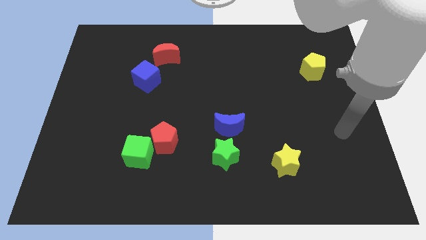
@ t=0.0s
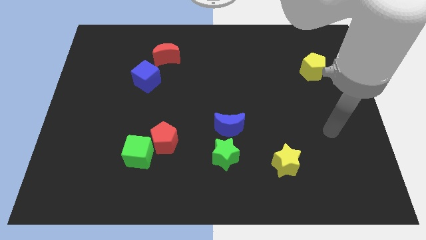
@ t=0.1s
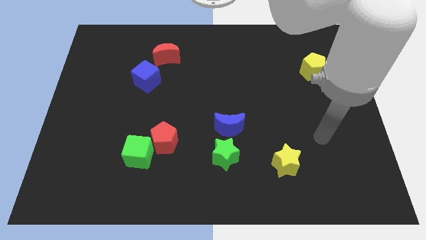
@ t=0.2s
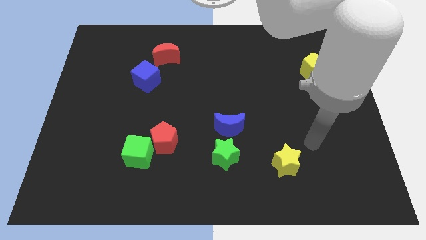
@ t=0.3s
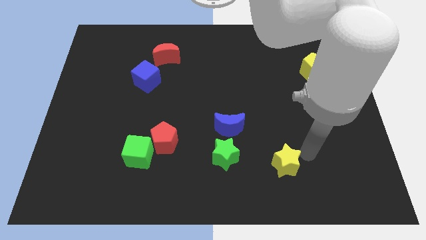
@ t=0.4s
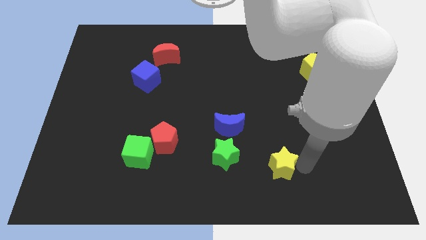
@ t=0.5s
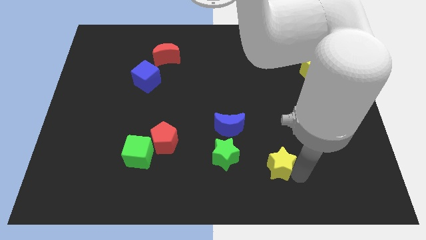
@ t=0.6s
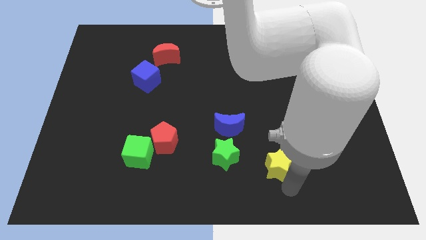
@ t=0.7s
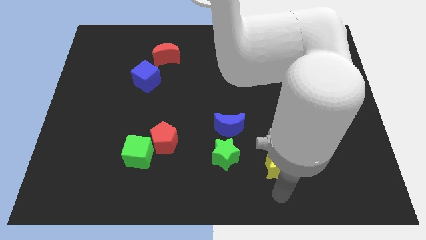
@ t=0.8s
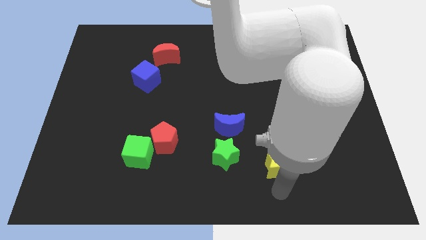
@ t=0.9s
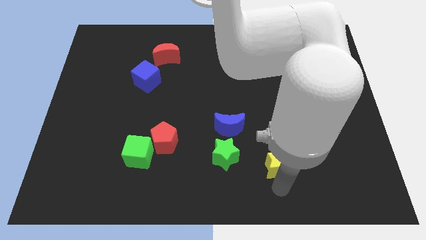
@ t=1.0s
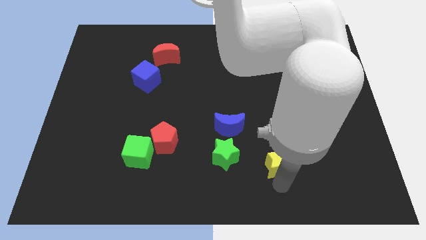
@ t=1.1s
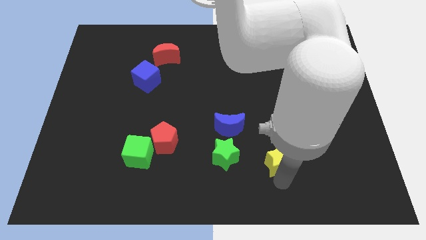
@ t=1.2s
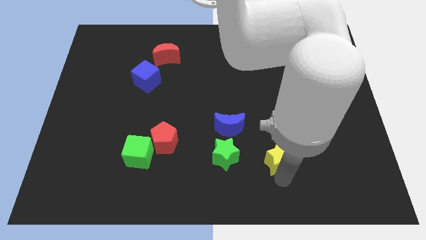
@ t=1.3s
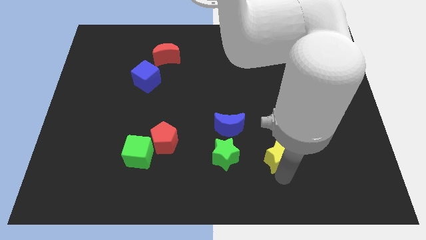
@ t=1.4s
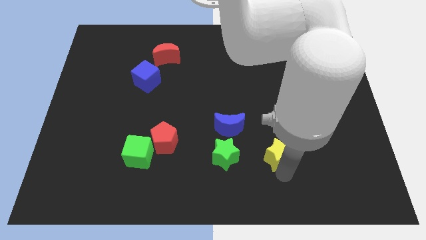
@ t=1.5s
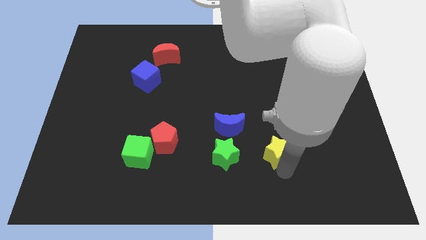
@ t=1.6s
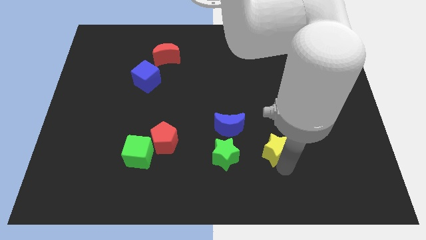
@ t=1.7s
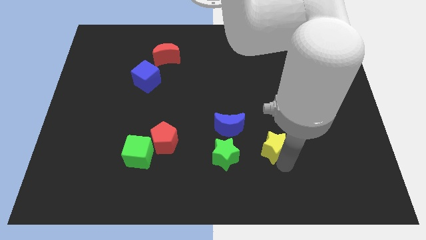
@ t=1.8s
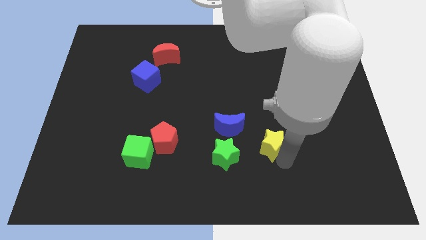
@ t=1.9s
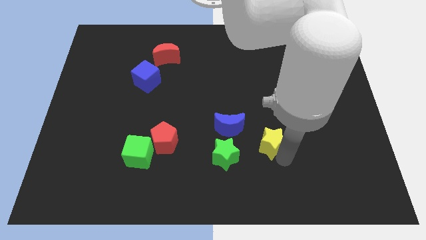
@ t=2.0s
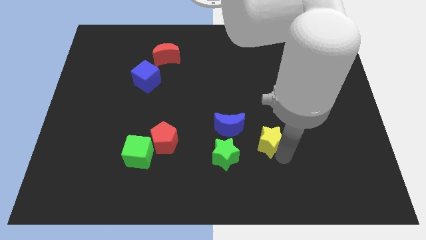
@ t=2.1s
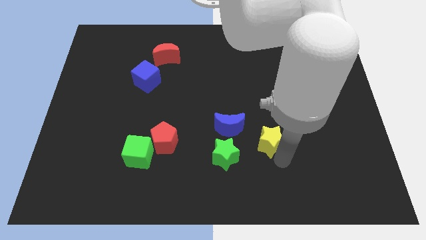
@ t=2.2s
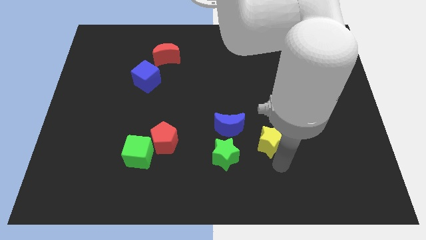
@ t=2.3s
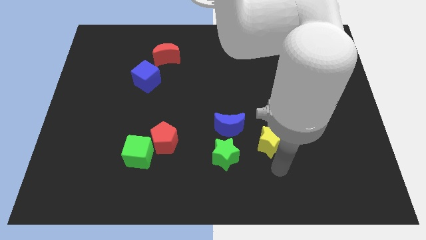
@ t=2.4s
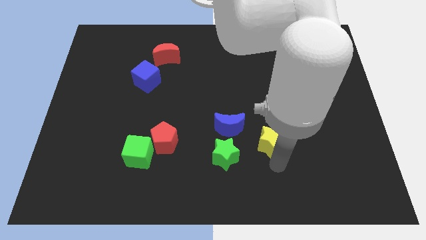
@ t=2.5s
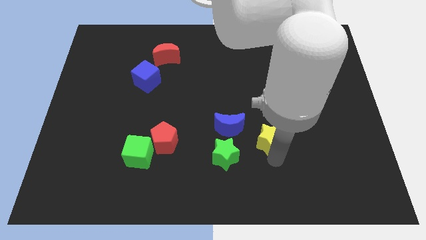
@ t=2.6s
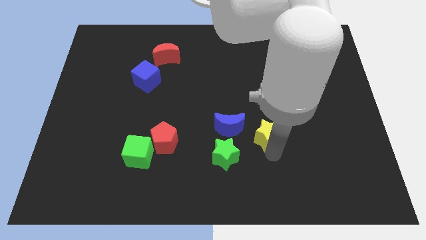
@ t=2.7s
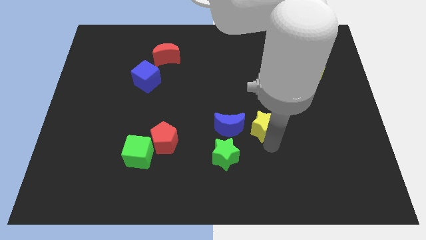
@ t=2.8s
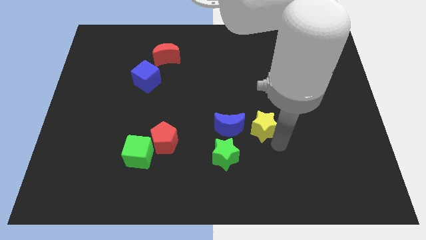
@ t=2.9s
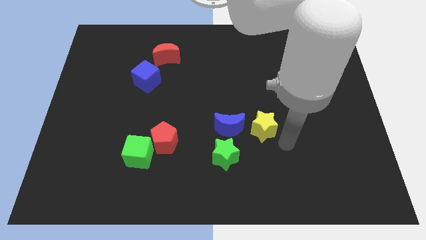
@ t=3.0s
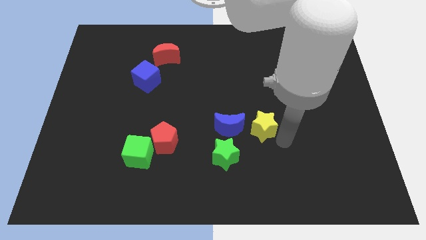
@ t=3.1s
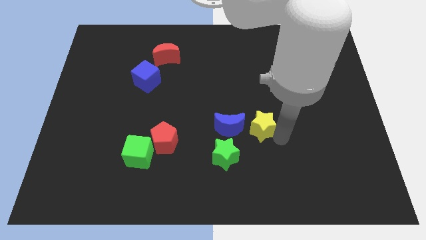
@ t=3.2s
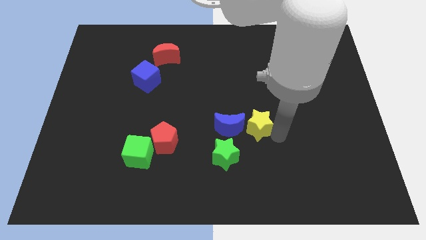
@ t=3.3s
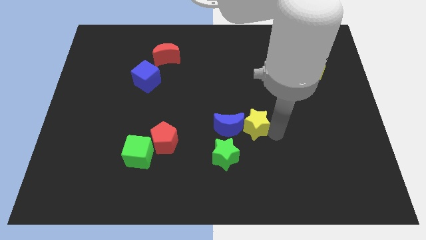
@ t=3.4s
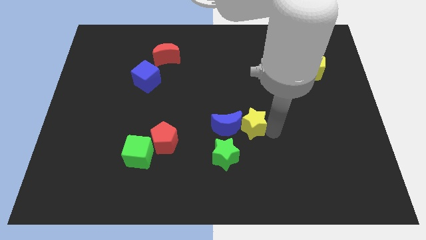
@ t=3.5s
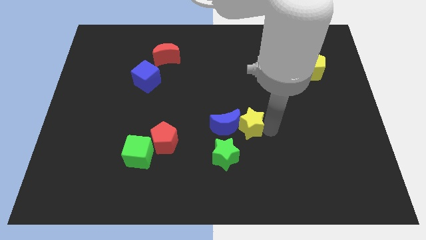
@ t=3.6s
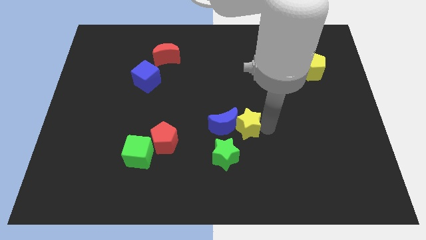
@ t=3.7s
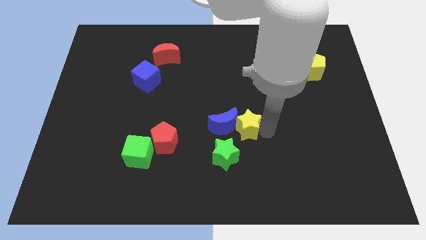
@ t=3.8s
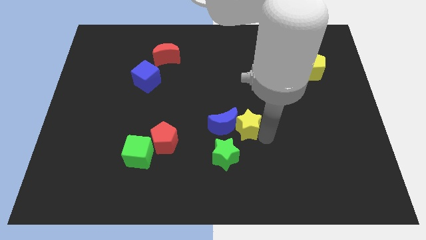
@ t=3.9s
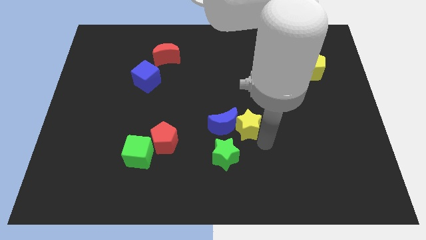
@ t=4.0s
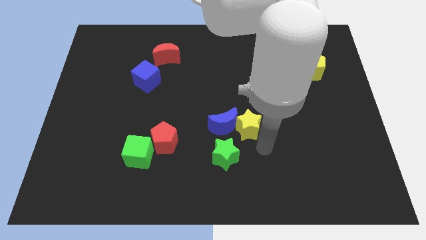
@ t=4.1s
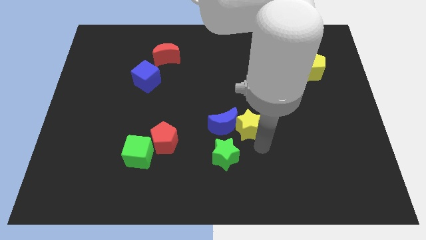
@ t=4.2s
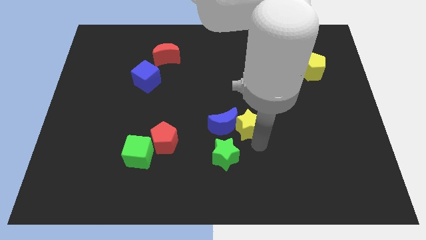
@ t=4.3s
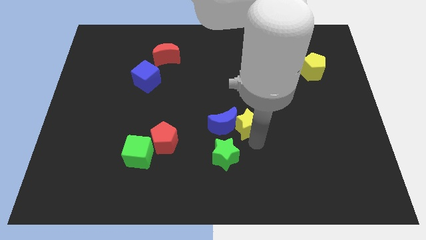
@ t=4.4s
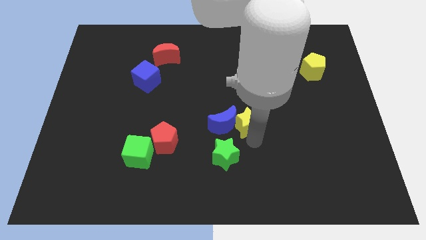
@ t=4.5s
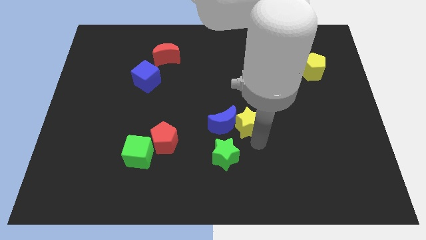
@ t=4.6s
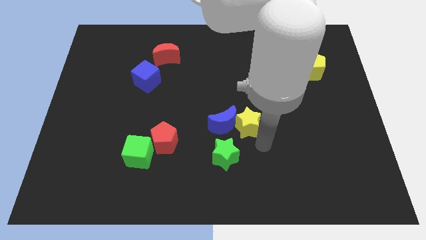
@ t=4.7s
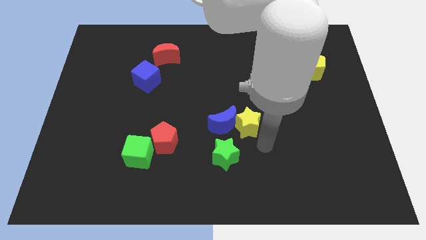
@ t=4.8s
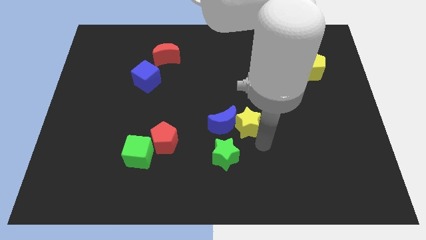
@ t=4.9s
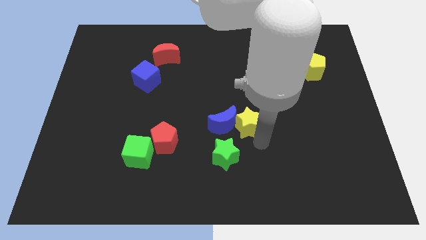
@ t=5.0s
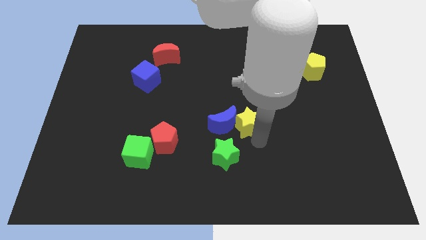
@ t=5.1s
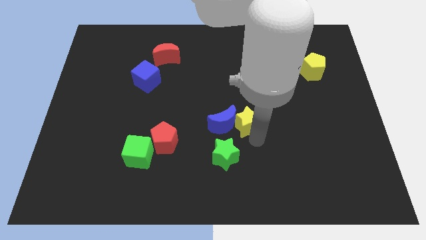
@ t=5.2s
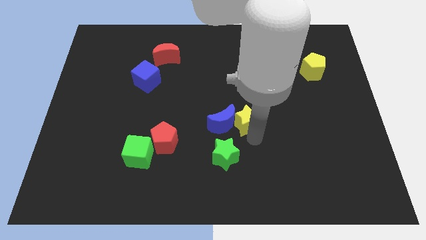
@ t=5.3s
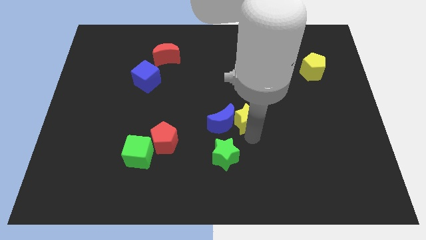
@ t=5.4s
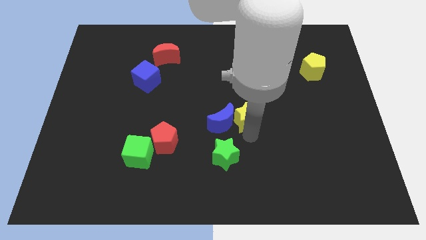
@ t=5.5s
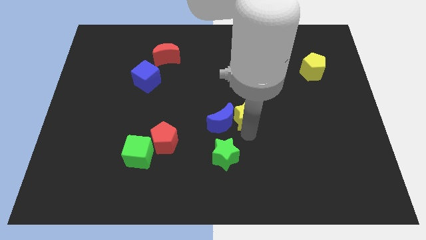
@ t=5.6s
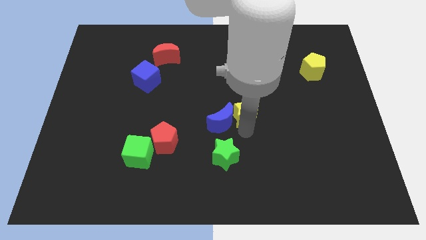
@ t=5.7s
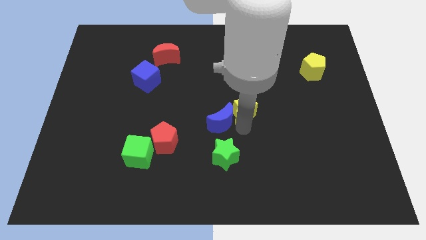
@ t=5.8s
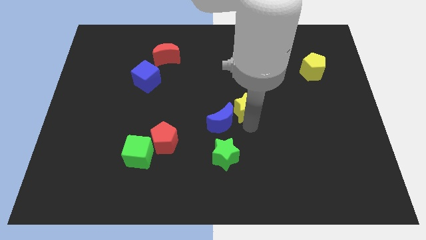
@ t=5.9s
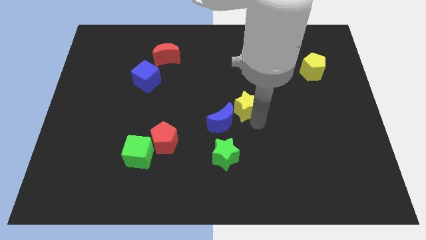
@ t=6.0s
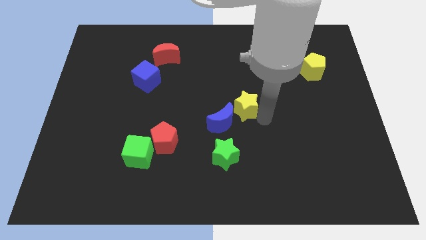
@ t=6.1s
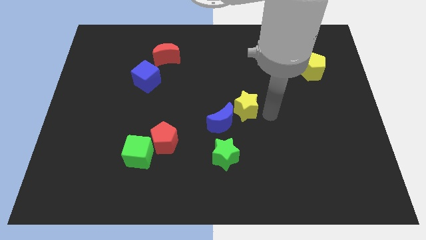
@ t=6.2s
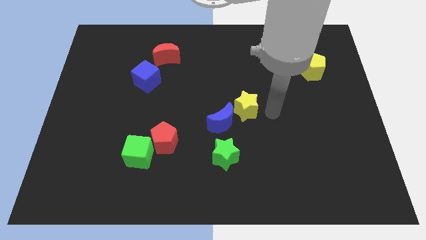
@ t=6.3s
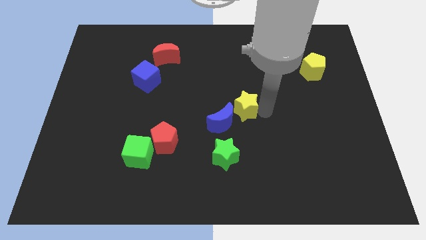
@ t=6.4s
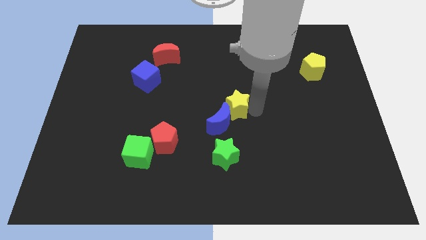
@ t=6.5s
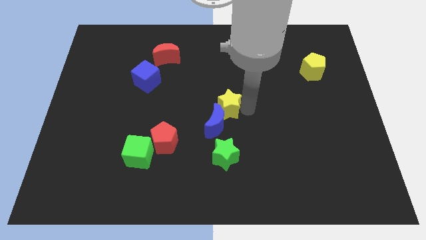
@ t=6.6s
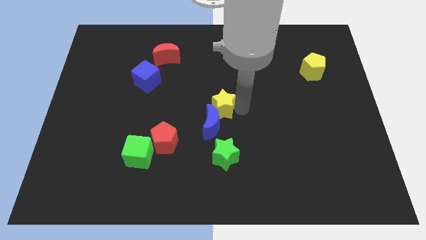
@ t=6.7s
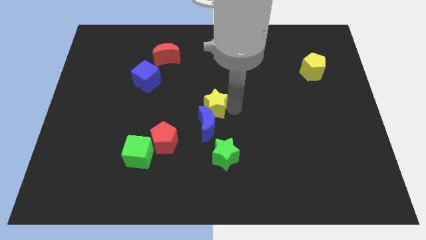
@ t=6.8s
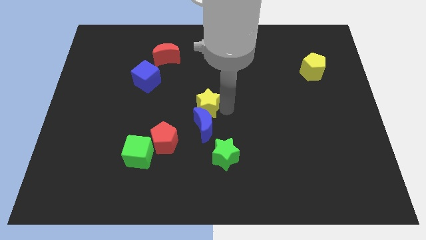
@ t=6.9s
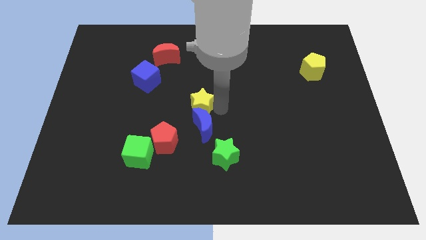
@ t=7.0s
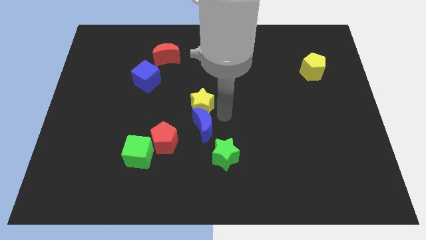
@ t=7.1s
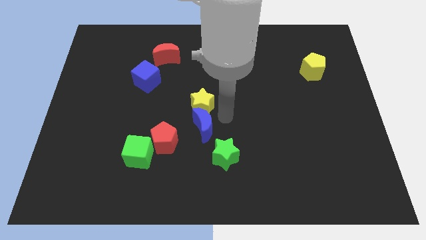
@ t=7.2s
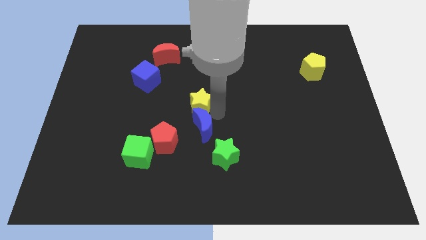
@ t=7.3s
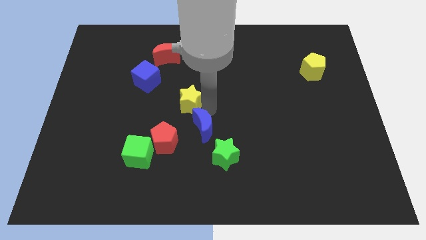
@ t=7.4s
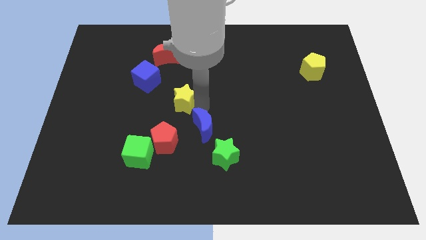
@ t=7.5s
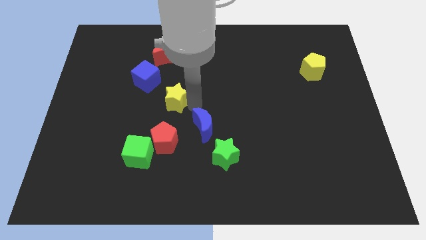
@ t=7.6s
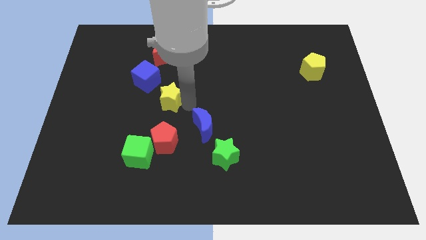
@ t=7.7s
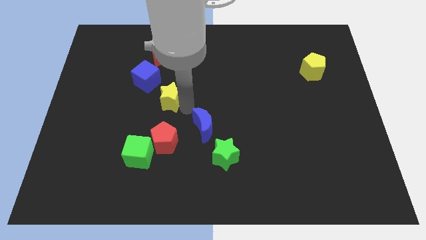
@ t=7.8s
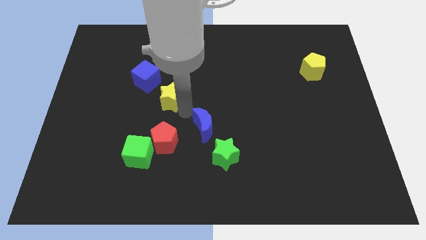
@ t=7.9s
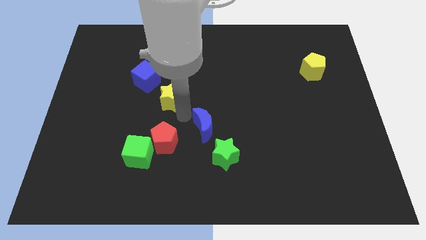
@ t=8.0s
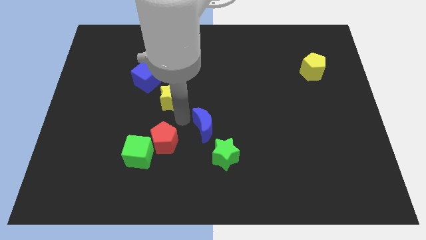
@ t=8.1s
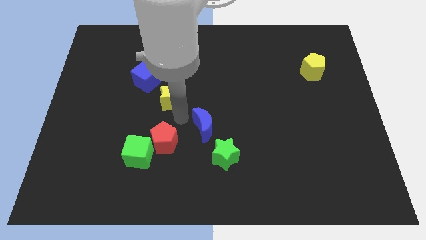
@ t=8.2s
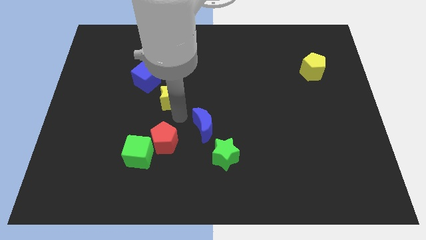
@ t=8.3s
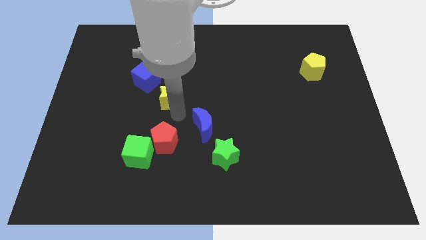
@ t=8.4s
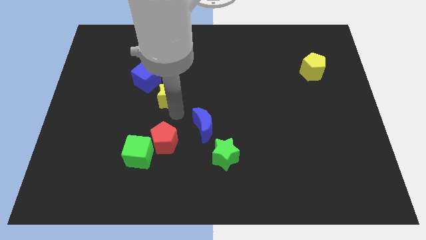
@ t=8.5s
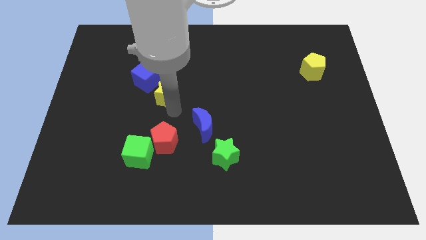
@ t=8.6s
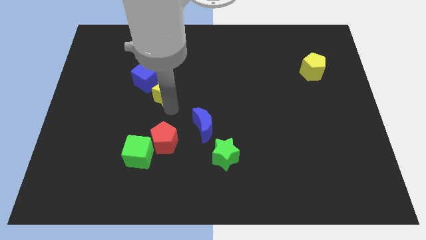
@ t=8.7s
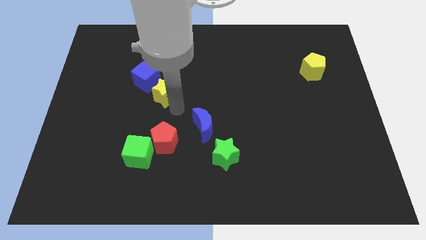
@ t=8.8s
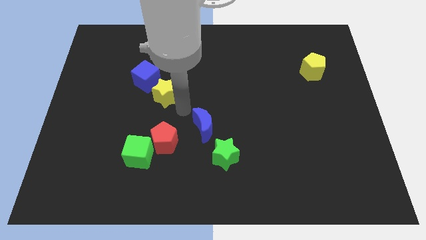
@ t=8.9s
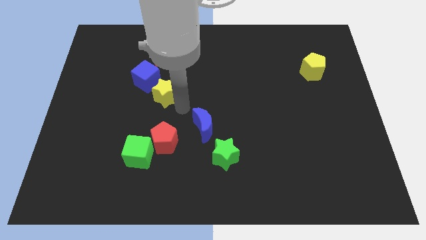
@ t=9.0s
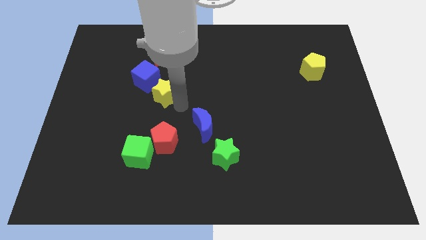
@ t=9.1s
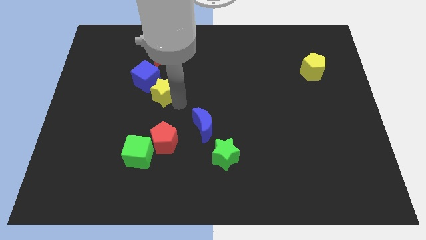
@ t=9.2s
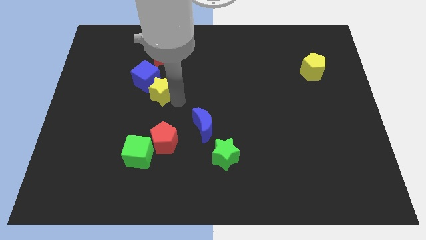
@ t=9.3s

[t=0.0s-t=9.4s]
move the yellow star towards the blue cube
